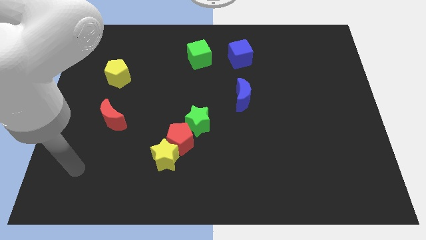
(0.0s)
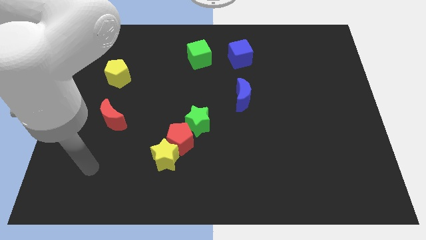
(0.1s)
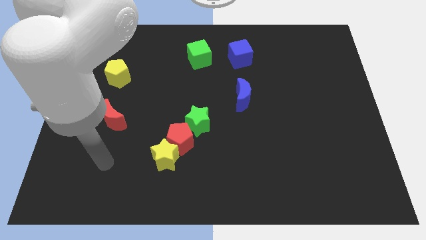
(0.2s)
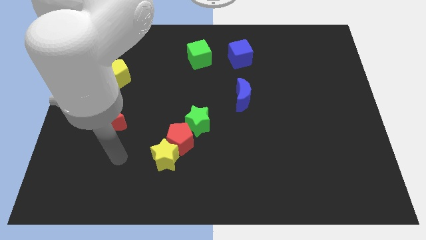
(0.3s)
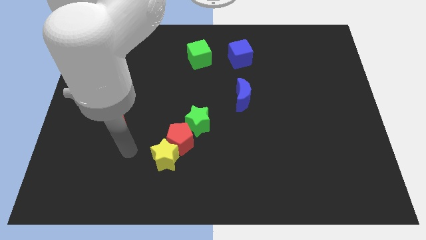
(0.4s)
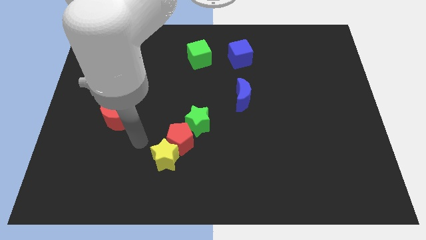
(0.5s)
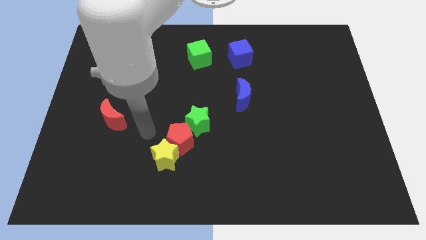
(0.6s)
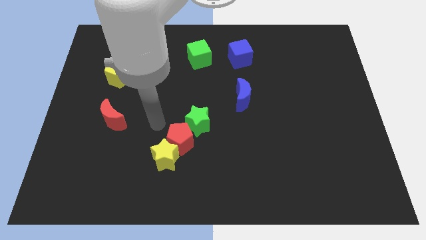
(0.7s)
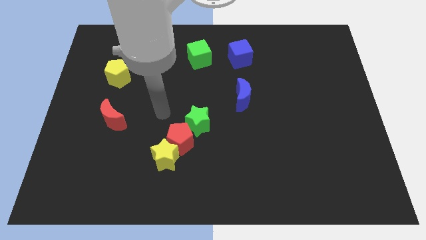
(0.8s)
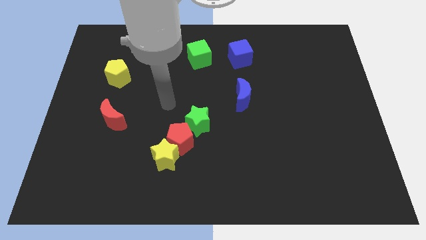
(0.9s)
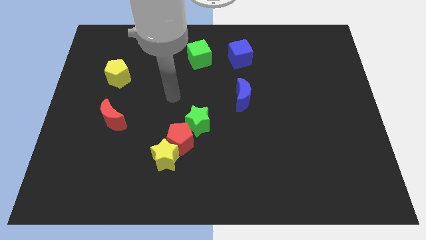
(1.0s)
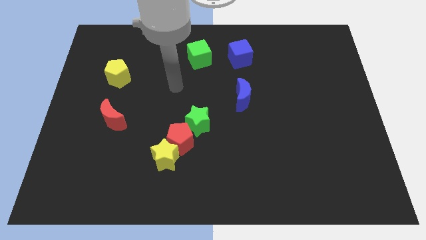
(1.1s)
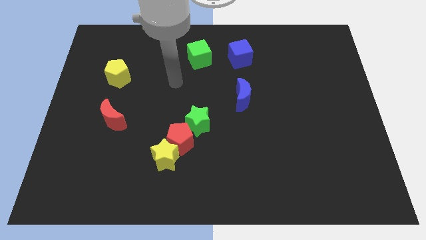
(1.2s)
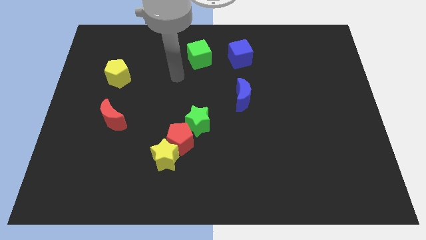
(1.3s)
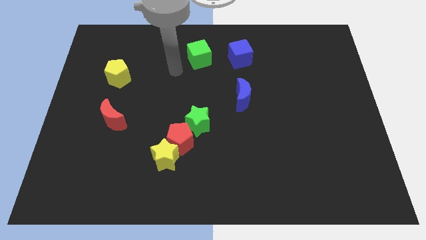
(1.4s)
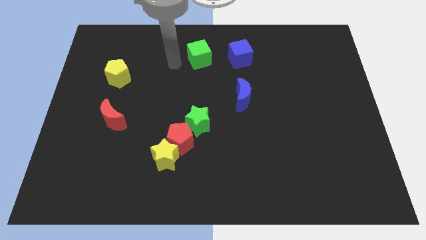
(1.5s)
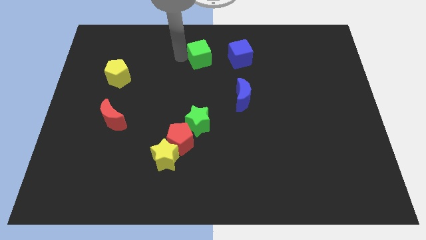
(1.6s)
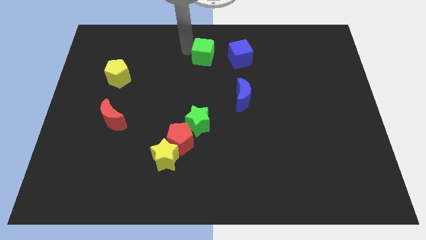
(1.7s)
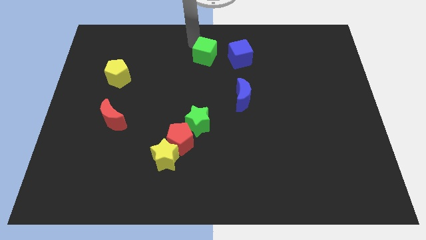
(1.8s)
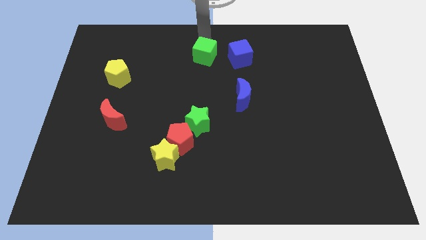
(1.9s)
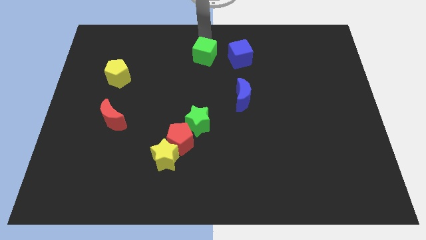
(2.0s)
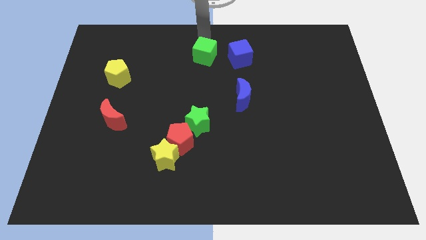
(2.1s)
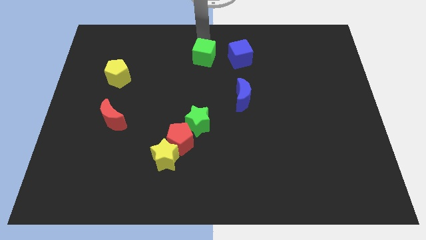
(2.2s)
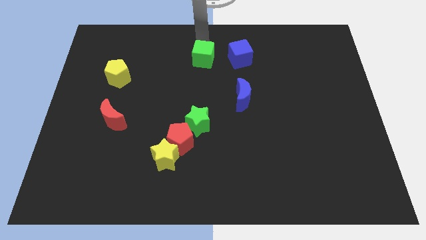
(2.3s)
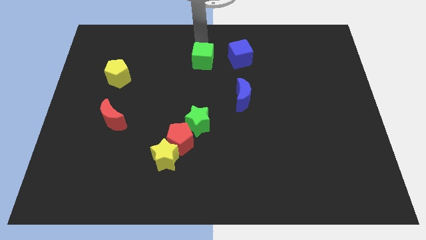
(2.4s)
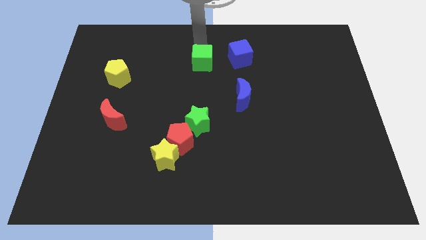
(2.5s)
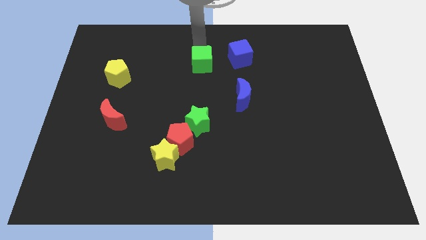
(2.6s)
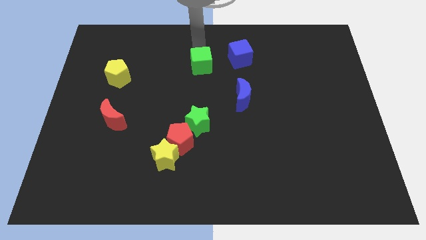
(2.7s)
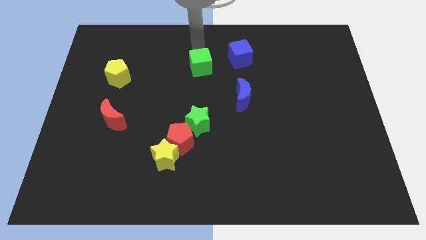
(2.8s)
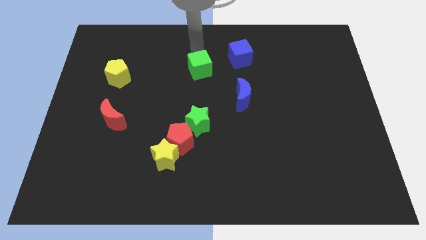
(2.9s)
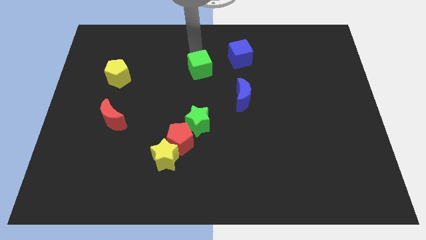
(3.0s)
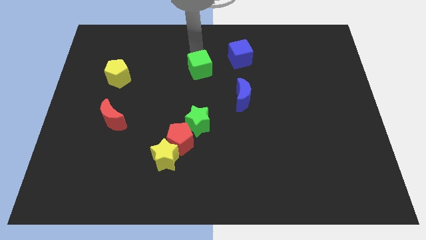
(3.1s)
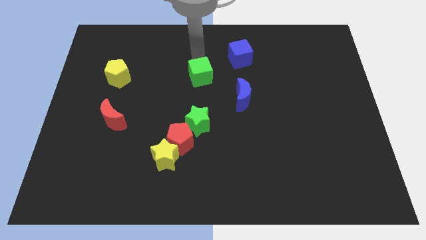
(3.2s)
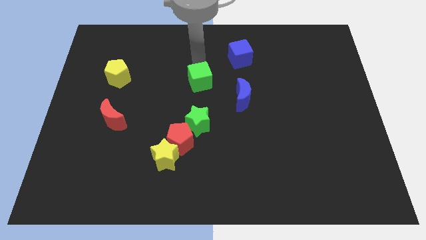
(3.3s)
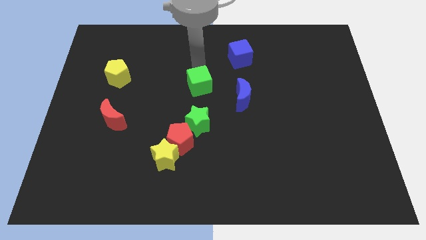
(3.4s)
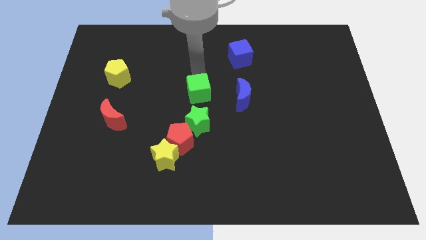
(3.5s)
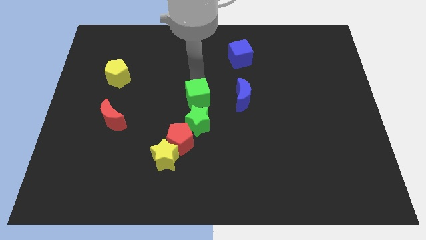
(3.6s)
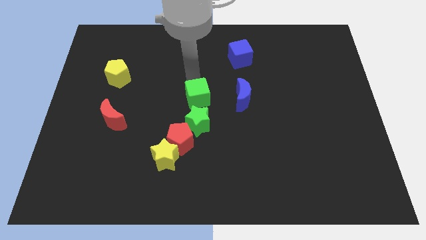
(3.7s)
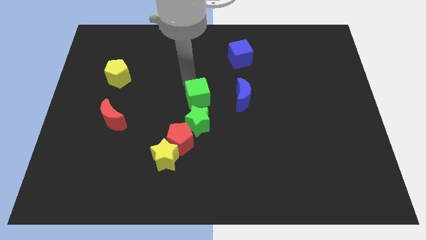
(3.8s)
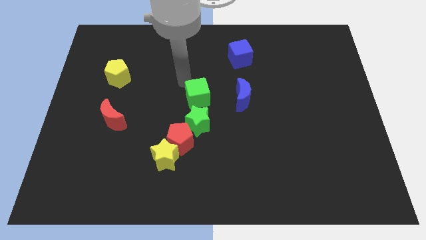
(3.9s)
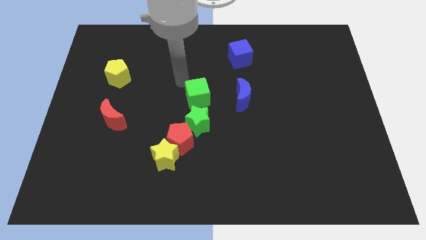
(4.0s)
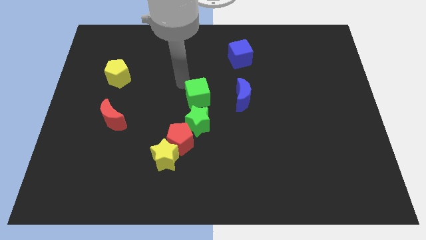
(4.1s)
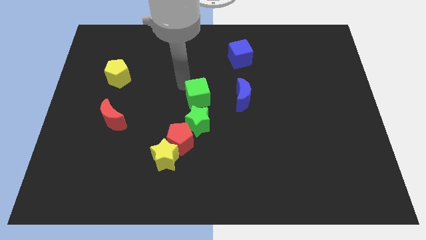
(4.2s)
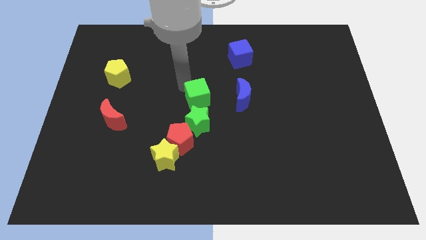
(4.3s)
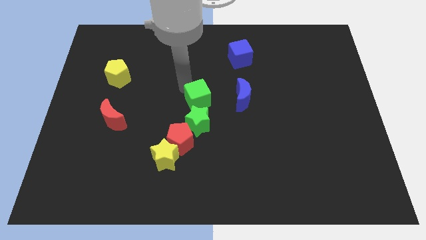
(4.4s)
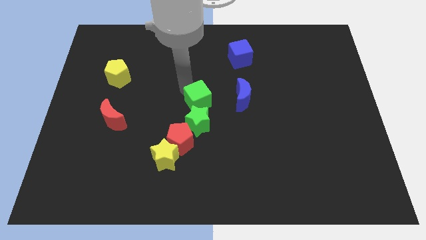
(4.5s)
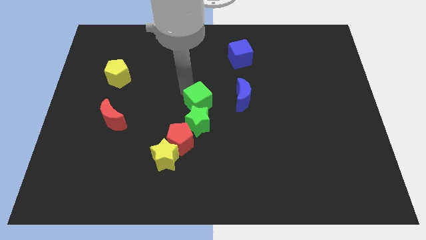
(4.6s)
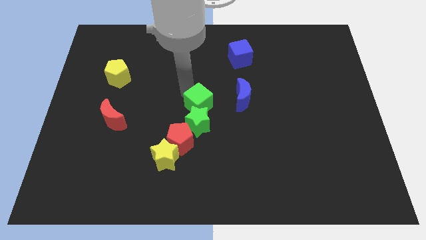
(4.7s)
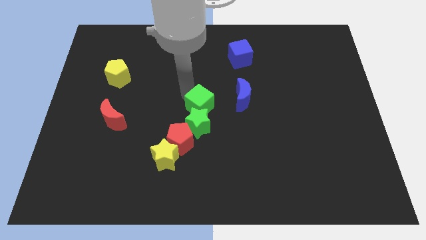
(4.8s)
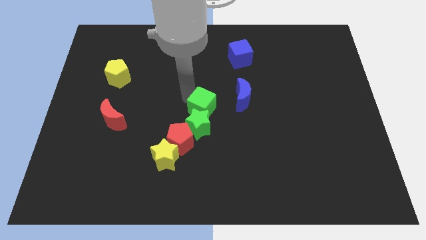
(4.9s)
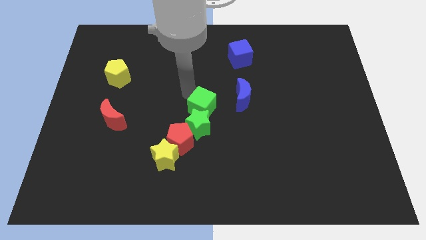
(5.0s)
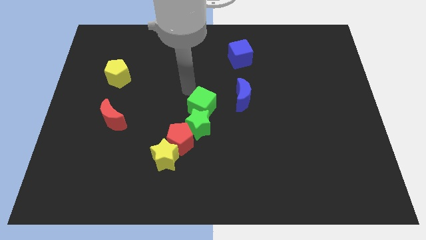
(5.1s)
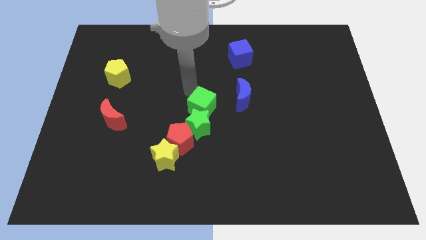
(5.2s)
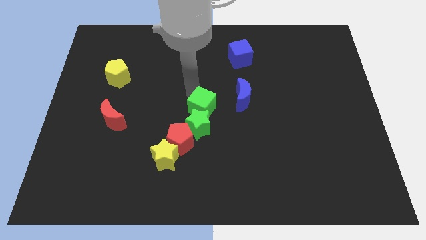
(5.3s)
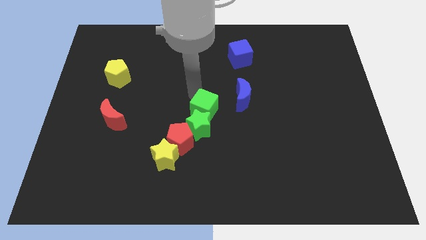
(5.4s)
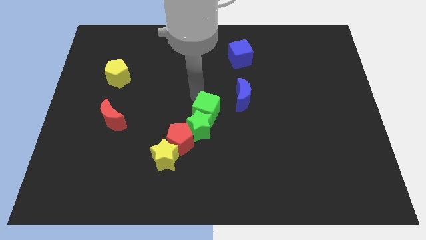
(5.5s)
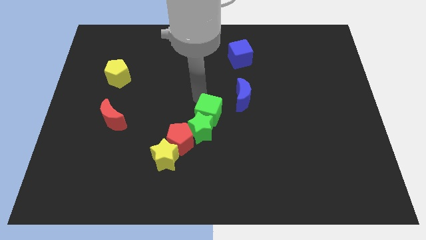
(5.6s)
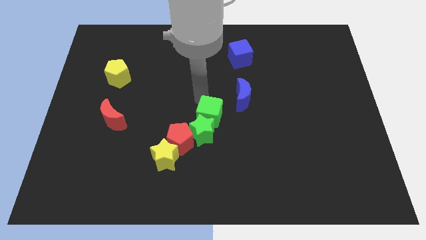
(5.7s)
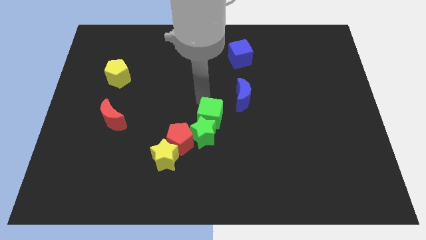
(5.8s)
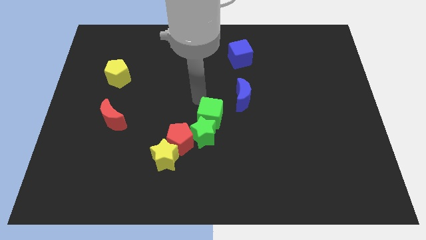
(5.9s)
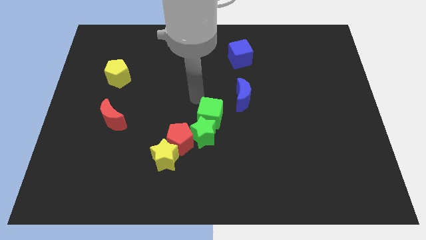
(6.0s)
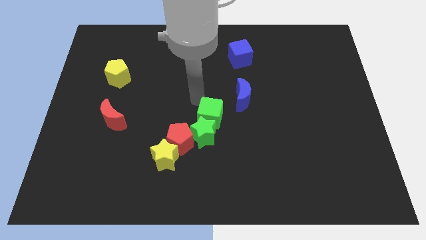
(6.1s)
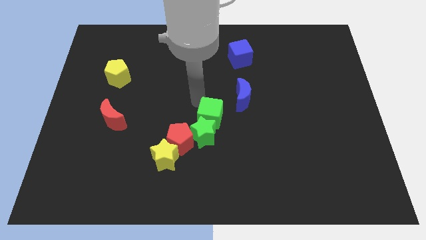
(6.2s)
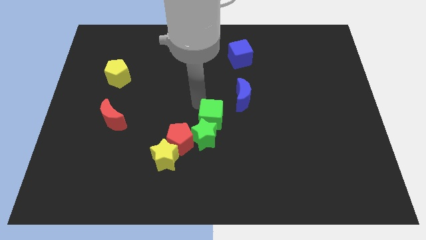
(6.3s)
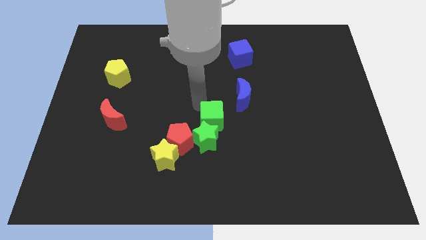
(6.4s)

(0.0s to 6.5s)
push the green cube down

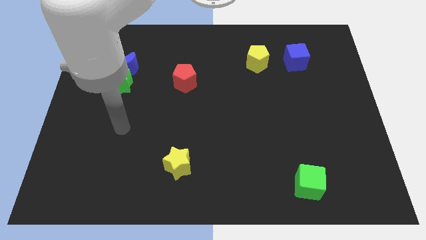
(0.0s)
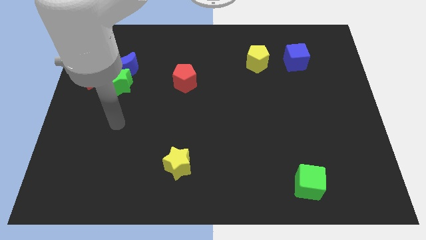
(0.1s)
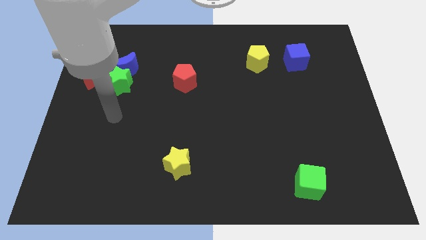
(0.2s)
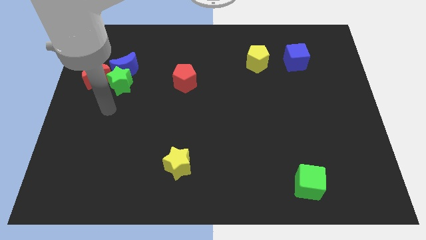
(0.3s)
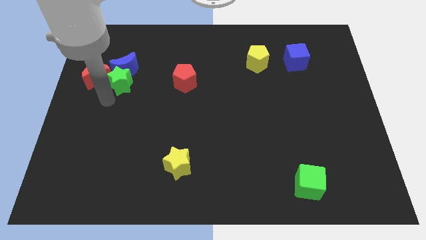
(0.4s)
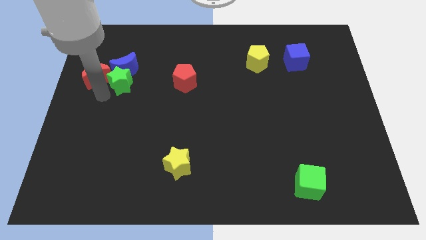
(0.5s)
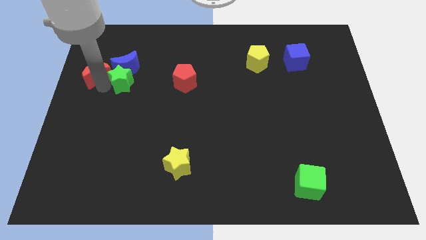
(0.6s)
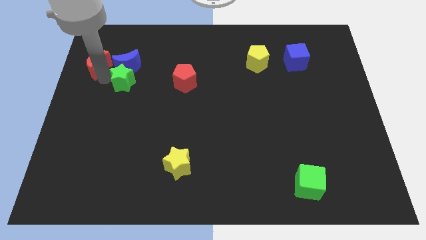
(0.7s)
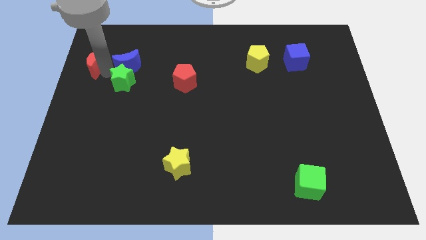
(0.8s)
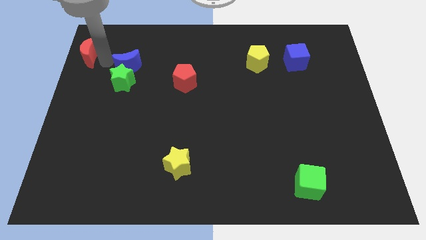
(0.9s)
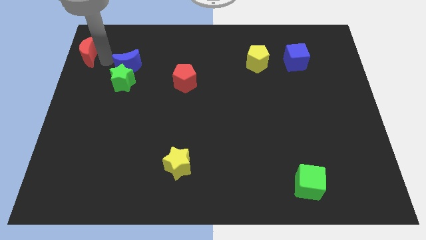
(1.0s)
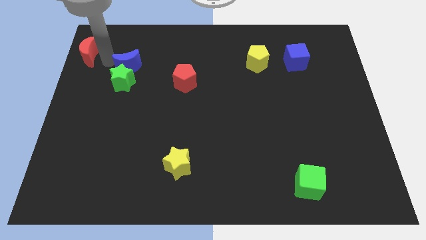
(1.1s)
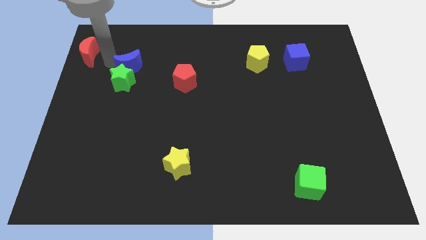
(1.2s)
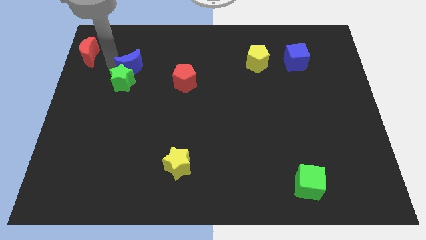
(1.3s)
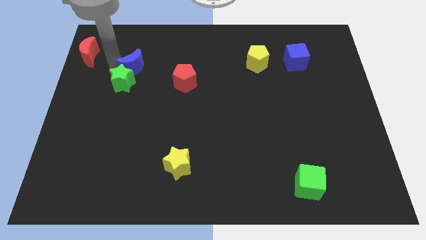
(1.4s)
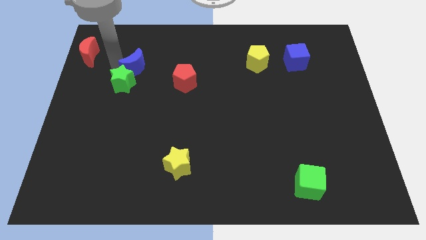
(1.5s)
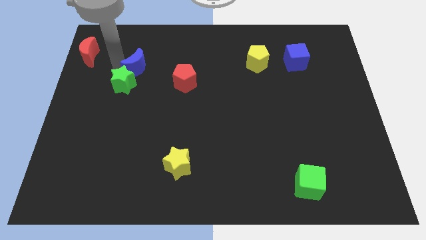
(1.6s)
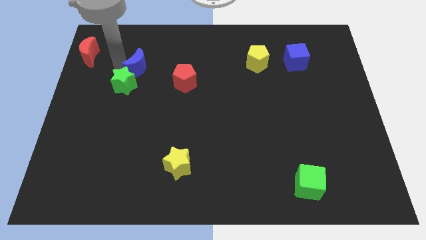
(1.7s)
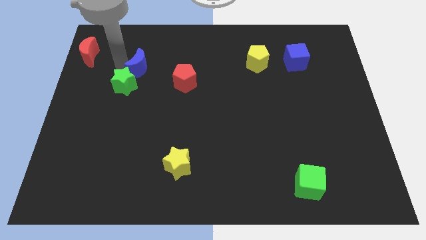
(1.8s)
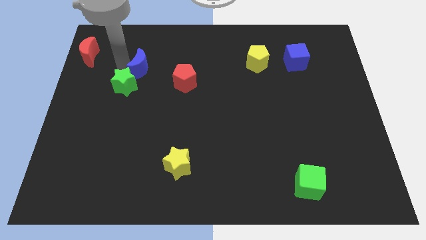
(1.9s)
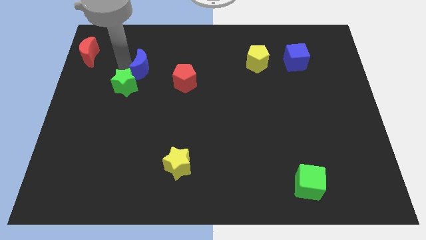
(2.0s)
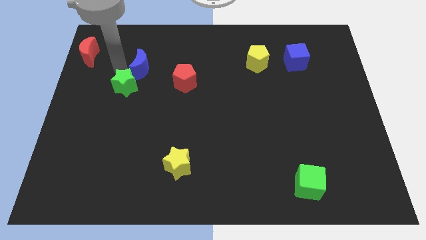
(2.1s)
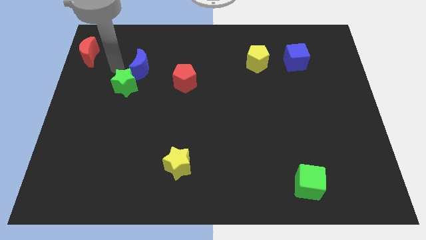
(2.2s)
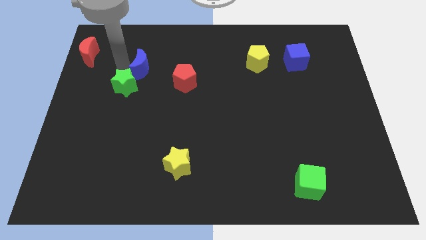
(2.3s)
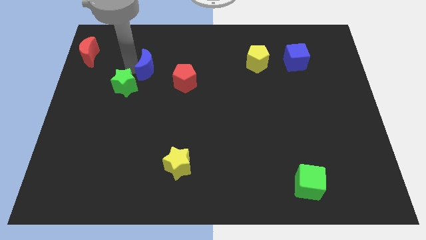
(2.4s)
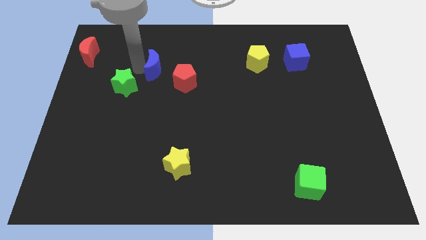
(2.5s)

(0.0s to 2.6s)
move the blue moon slightly right
